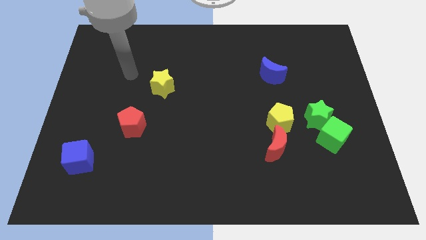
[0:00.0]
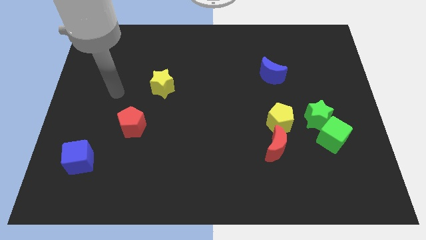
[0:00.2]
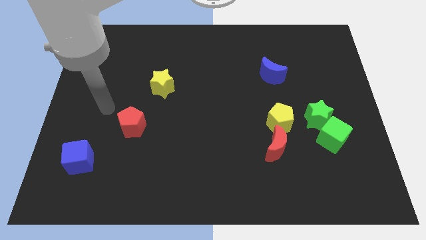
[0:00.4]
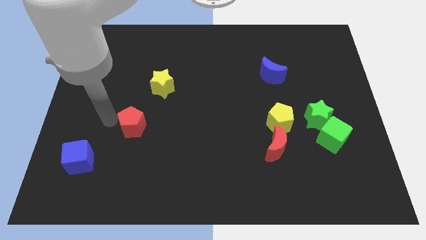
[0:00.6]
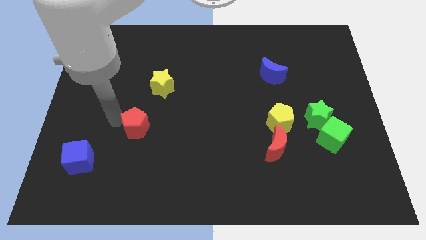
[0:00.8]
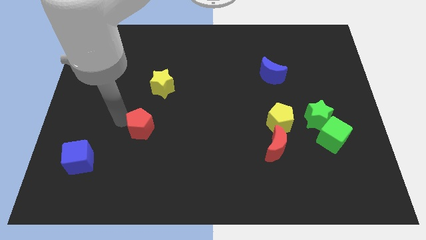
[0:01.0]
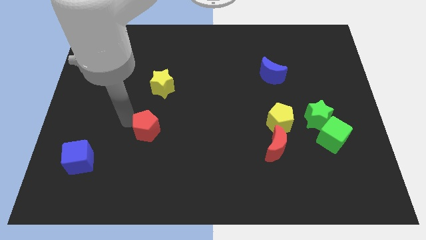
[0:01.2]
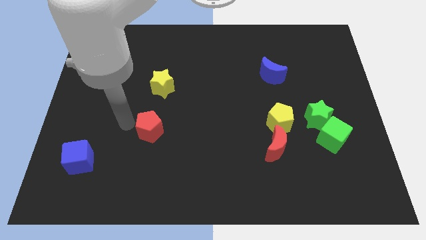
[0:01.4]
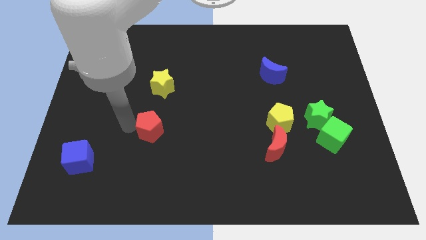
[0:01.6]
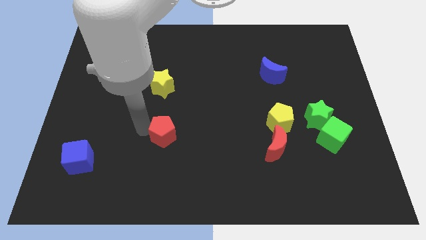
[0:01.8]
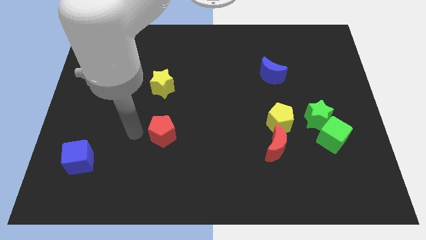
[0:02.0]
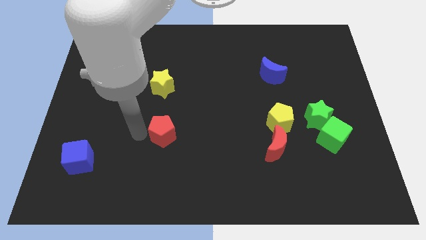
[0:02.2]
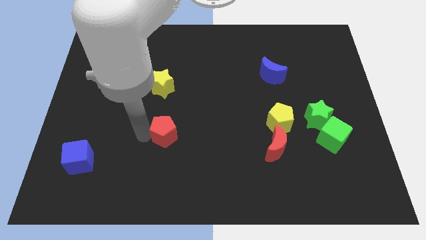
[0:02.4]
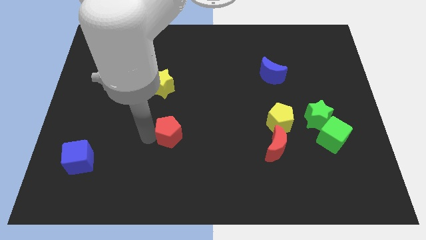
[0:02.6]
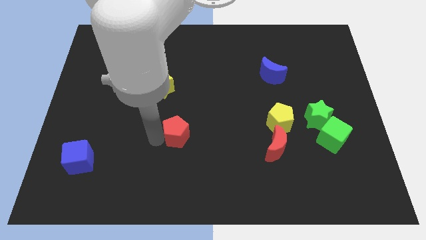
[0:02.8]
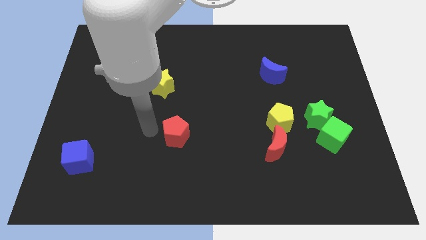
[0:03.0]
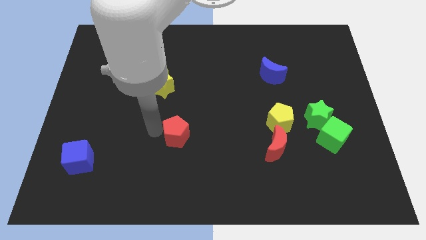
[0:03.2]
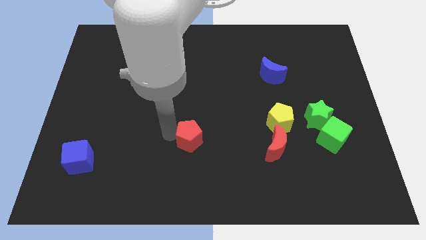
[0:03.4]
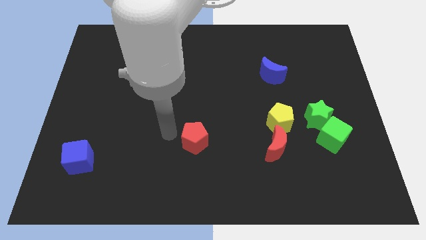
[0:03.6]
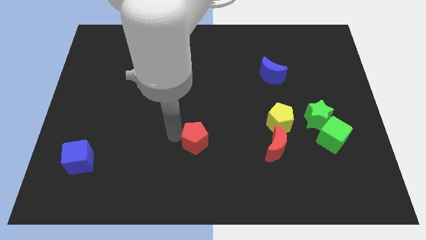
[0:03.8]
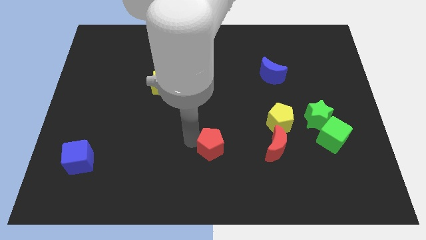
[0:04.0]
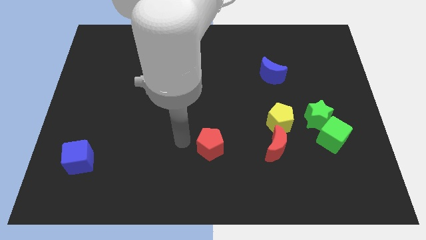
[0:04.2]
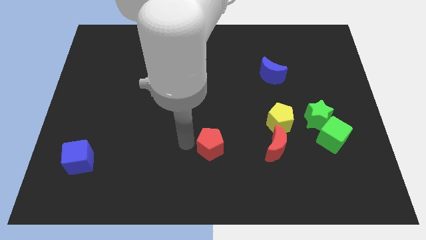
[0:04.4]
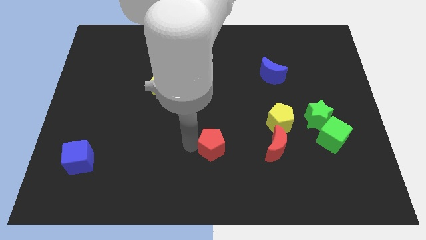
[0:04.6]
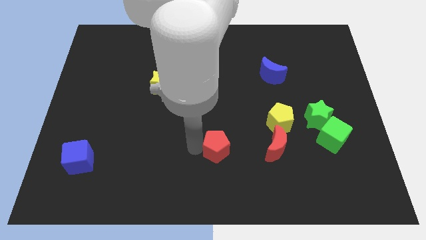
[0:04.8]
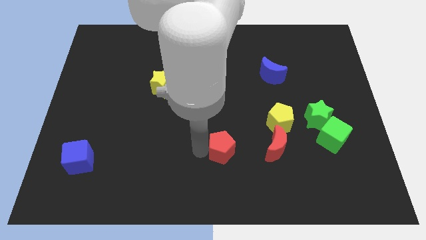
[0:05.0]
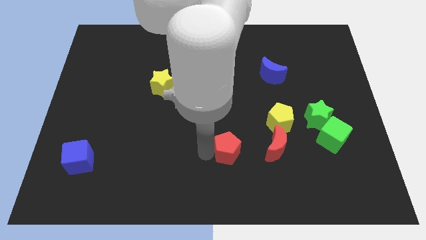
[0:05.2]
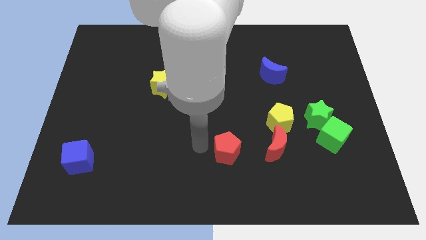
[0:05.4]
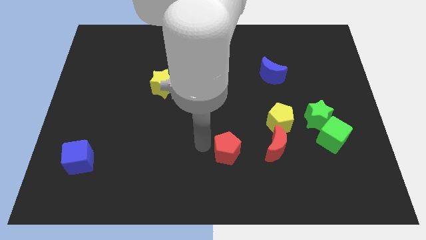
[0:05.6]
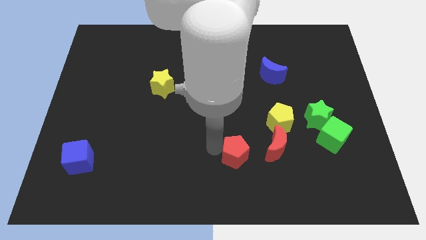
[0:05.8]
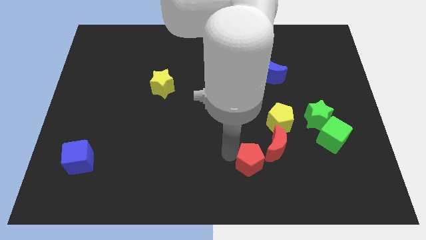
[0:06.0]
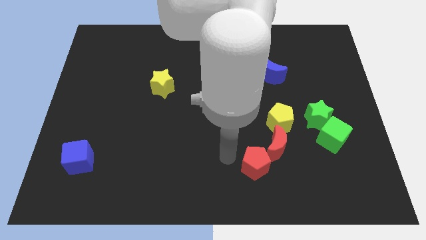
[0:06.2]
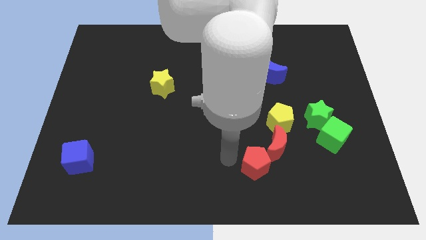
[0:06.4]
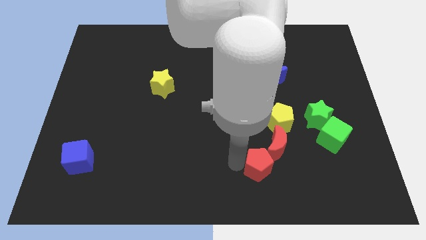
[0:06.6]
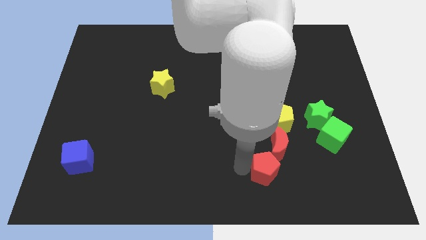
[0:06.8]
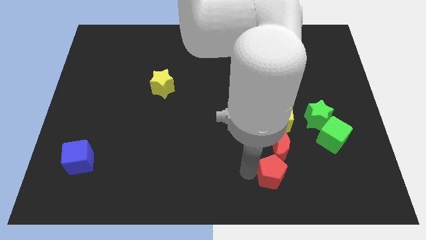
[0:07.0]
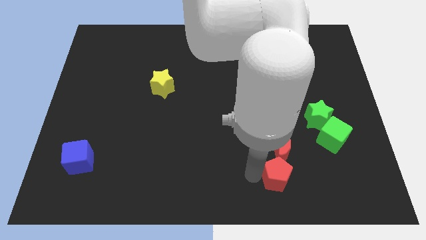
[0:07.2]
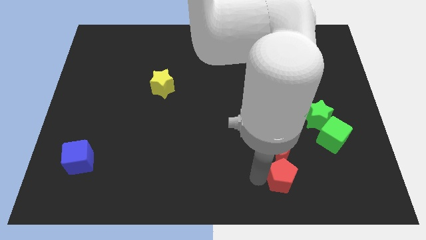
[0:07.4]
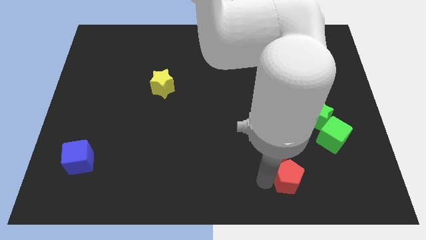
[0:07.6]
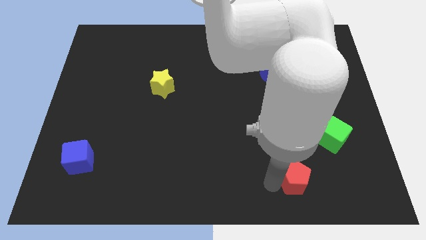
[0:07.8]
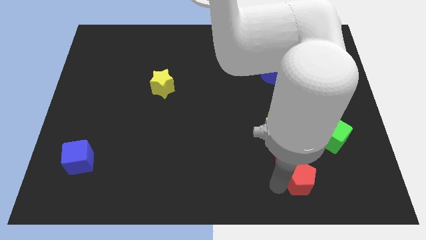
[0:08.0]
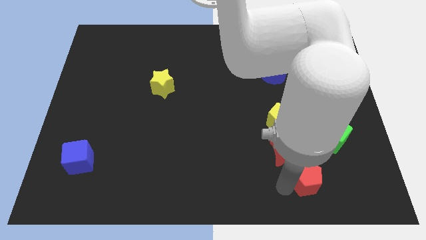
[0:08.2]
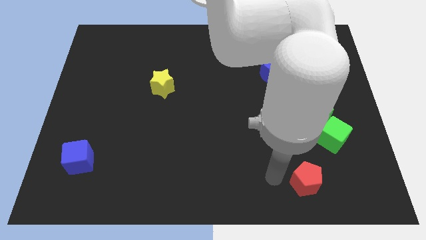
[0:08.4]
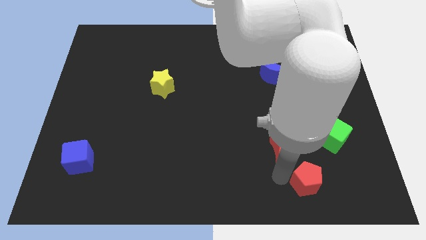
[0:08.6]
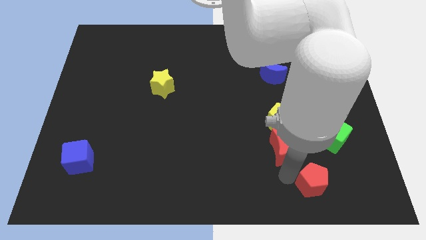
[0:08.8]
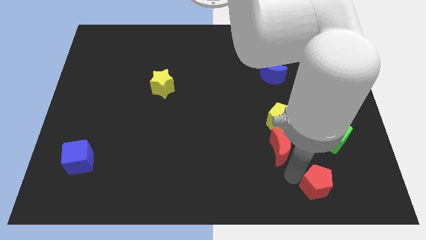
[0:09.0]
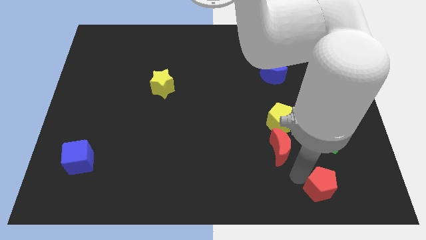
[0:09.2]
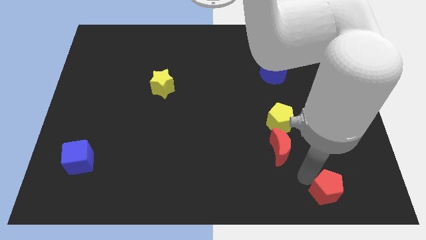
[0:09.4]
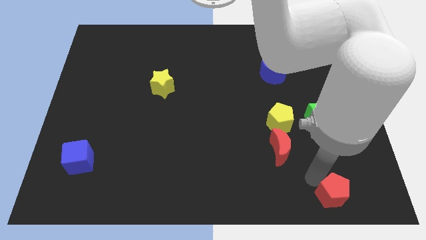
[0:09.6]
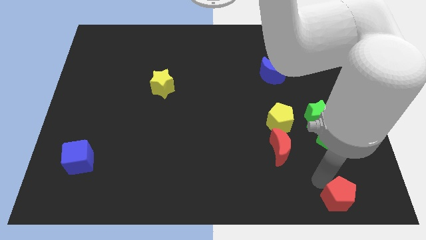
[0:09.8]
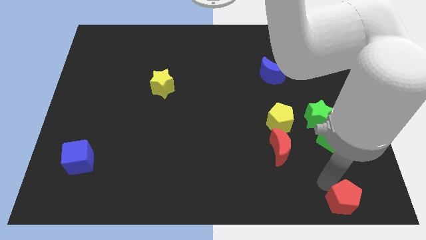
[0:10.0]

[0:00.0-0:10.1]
move the red pentagon to the lower right corner

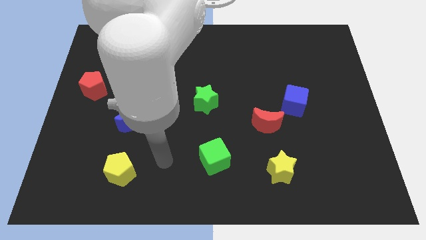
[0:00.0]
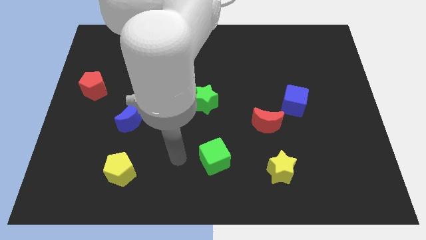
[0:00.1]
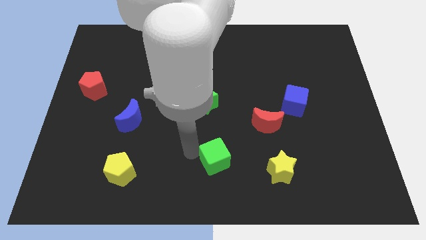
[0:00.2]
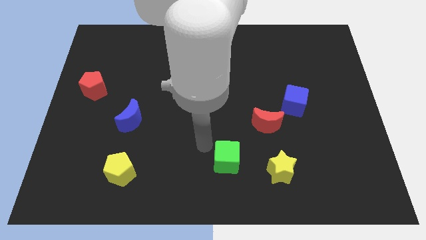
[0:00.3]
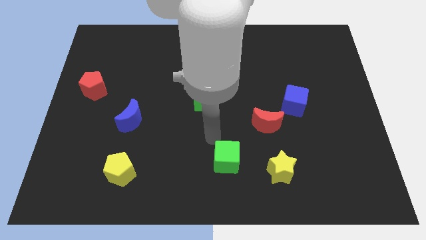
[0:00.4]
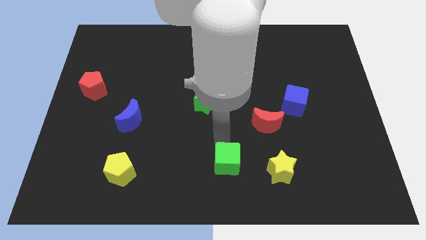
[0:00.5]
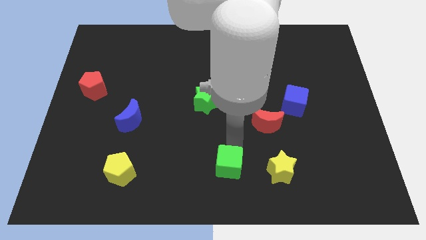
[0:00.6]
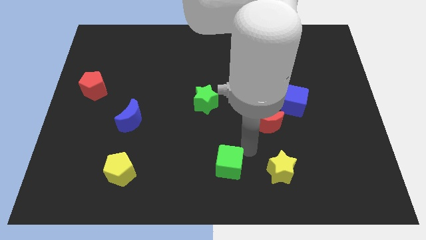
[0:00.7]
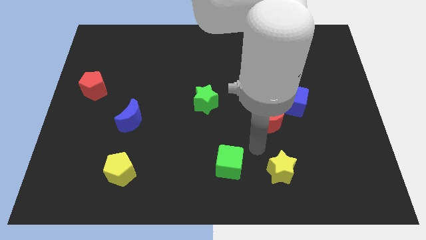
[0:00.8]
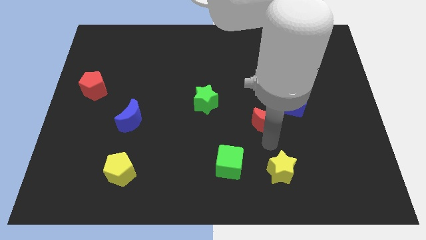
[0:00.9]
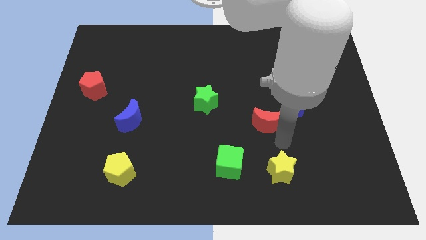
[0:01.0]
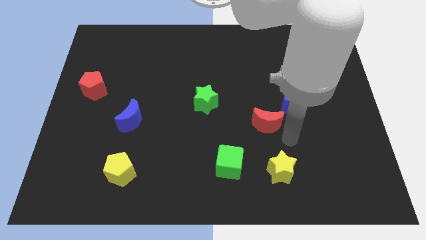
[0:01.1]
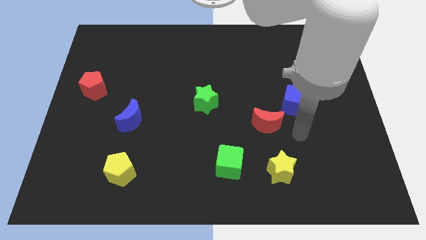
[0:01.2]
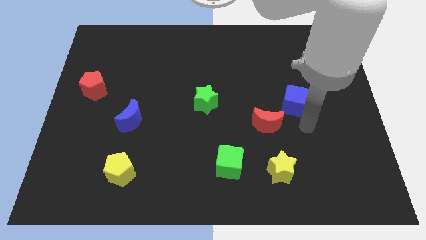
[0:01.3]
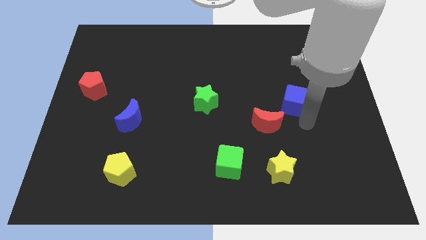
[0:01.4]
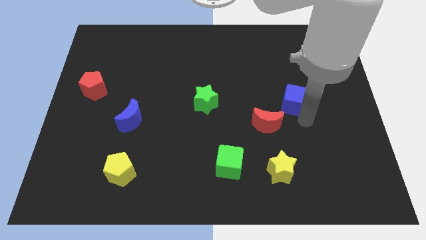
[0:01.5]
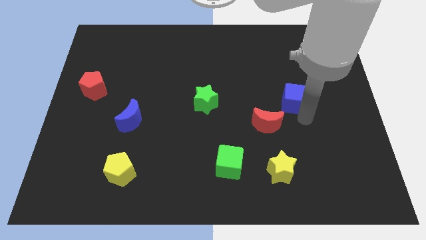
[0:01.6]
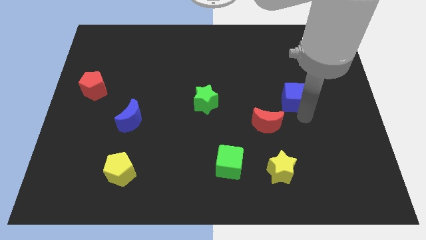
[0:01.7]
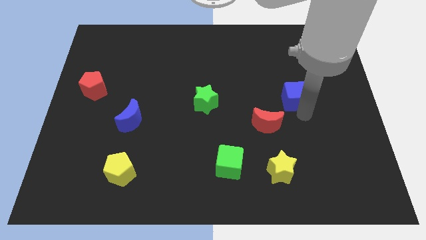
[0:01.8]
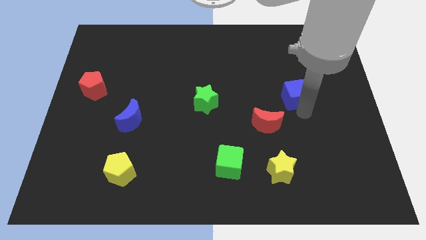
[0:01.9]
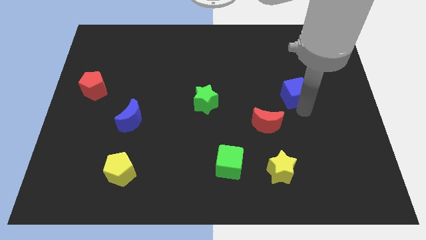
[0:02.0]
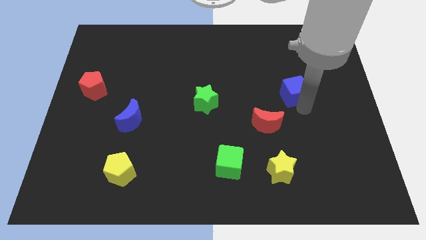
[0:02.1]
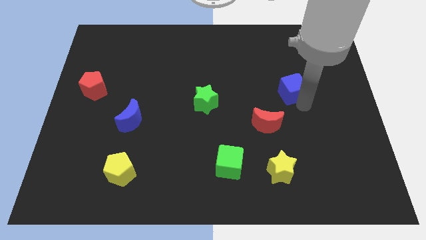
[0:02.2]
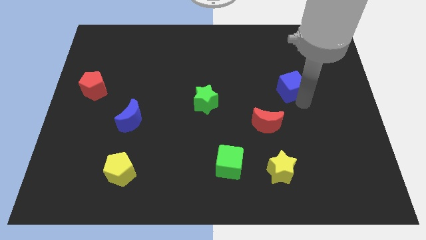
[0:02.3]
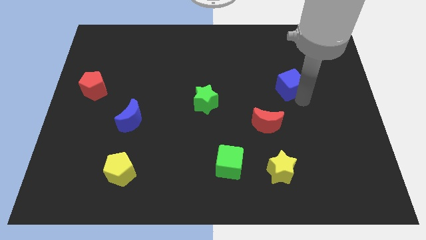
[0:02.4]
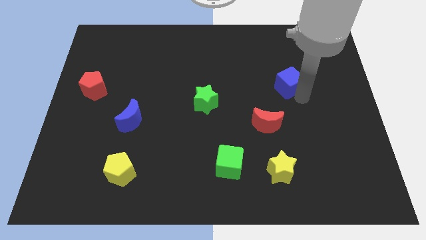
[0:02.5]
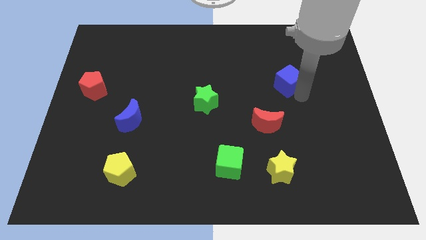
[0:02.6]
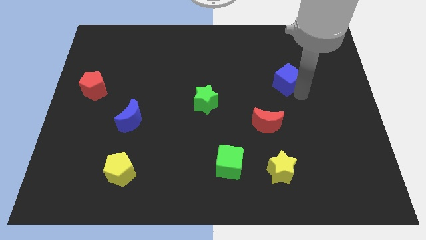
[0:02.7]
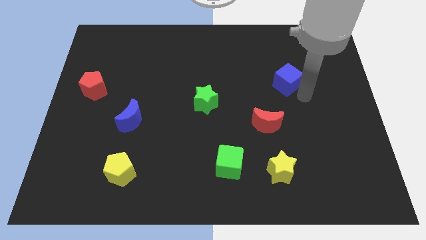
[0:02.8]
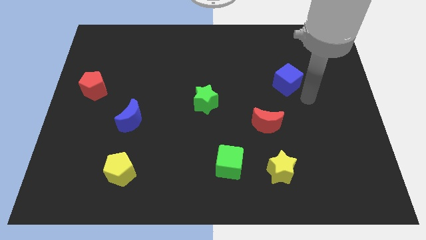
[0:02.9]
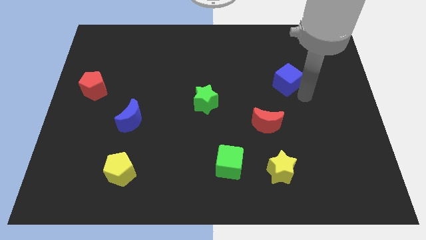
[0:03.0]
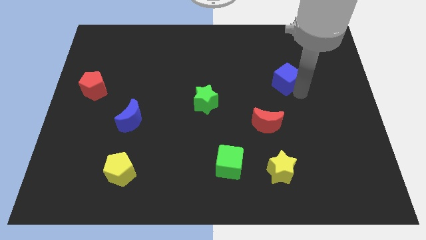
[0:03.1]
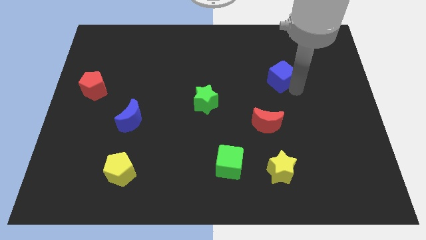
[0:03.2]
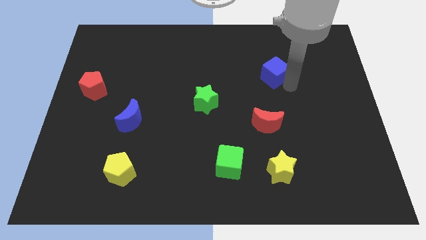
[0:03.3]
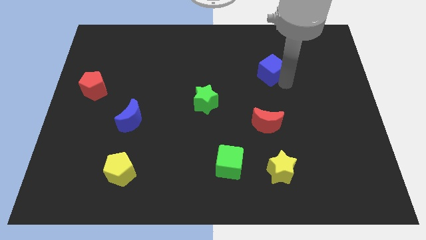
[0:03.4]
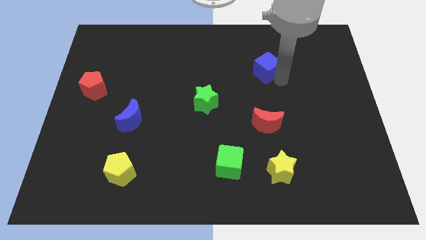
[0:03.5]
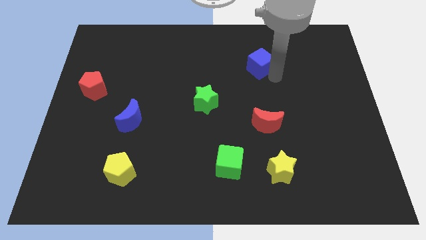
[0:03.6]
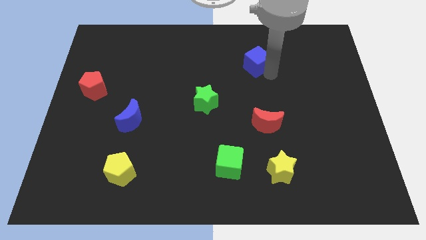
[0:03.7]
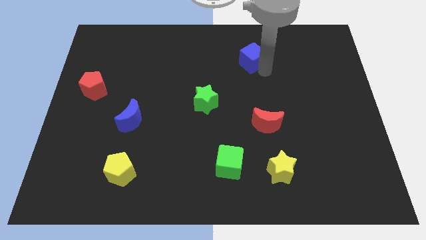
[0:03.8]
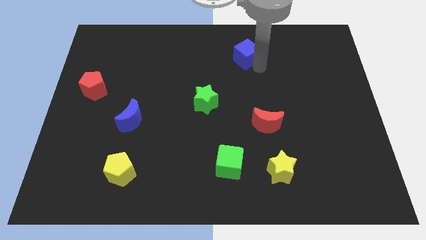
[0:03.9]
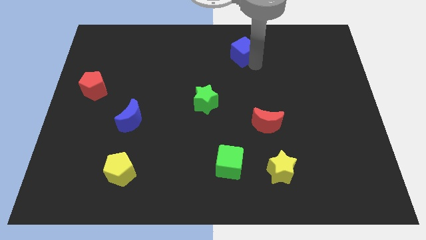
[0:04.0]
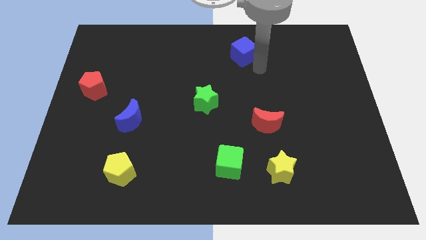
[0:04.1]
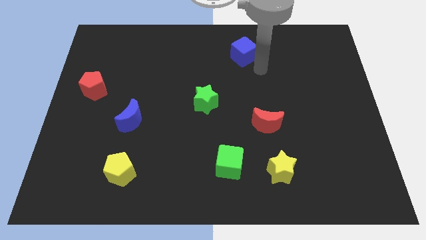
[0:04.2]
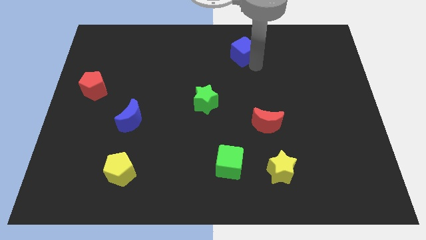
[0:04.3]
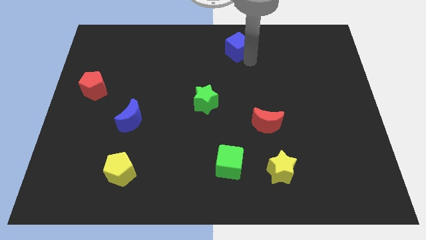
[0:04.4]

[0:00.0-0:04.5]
move the blue cube to the towards your base
